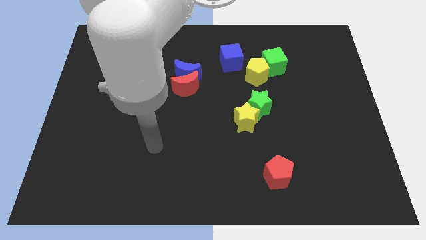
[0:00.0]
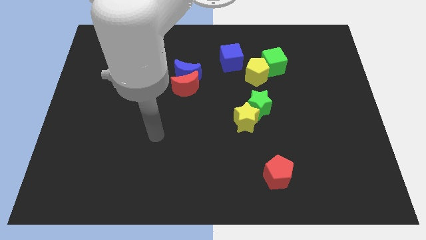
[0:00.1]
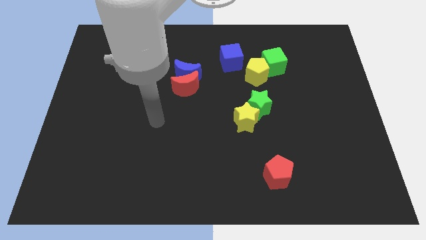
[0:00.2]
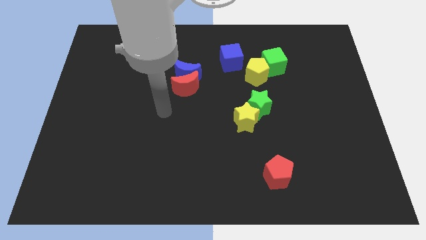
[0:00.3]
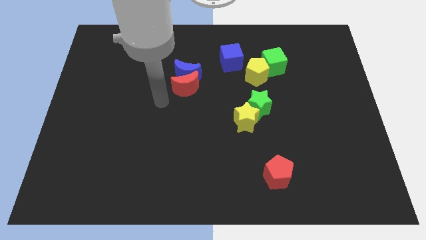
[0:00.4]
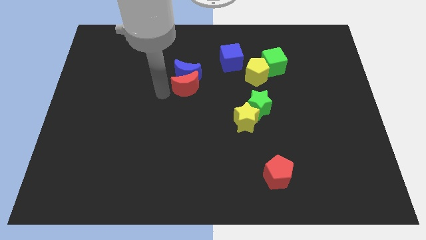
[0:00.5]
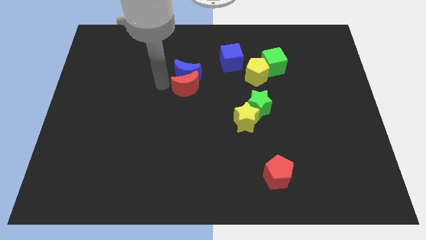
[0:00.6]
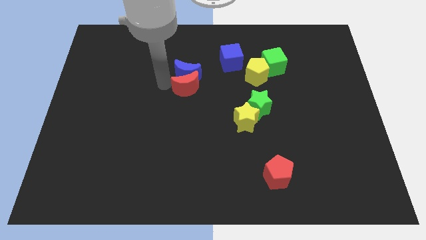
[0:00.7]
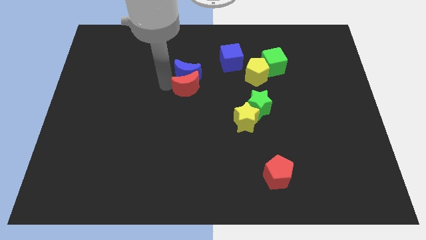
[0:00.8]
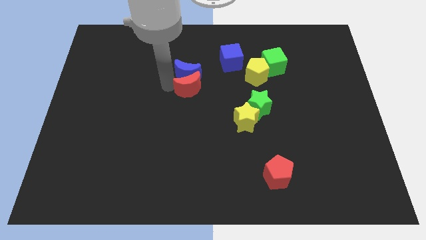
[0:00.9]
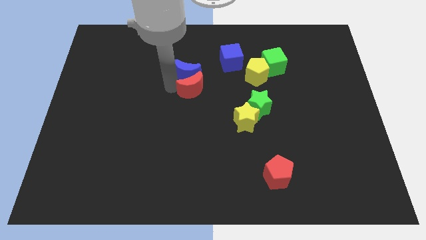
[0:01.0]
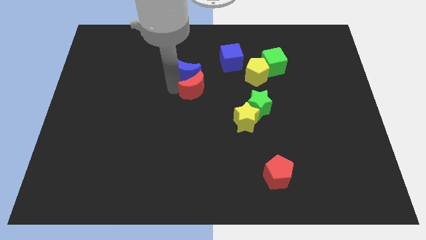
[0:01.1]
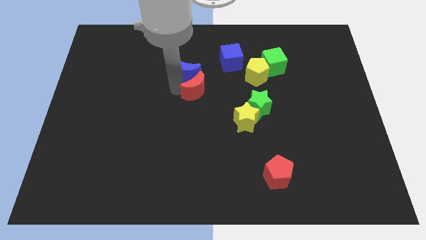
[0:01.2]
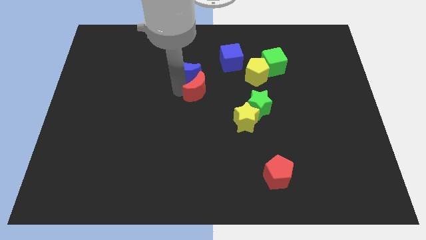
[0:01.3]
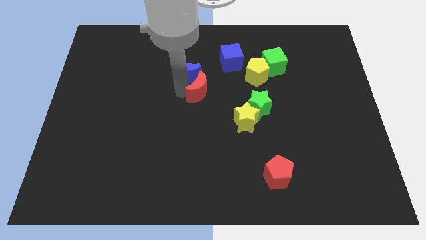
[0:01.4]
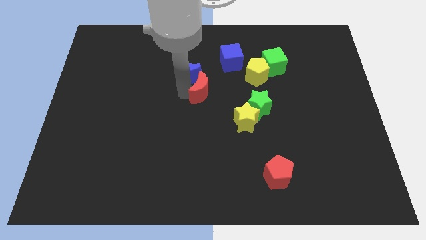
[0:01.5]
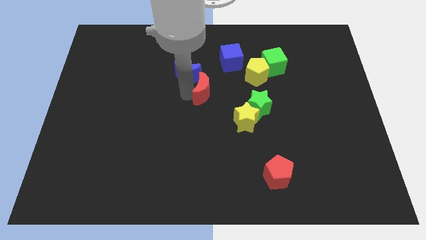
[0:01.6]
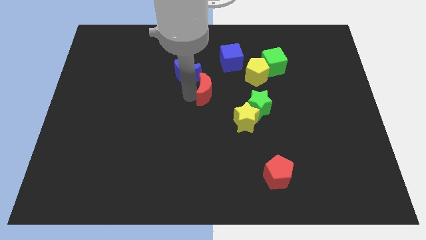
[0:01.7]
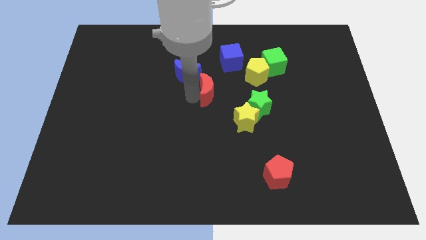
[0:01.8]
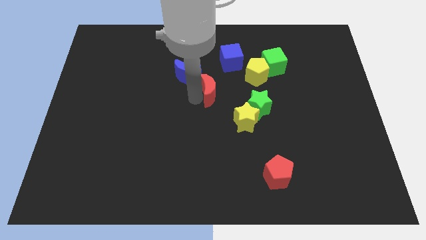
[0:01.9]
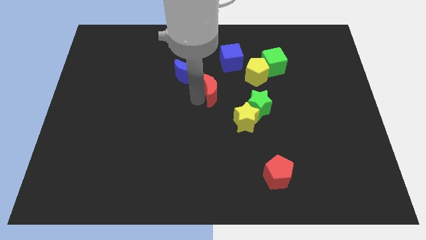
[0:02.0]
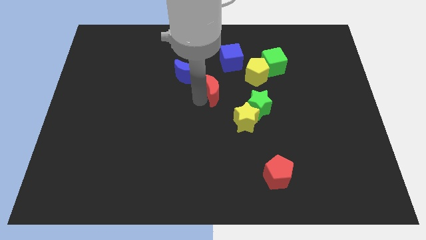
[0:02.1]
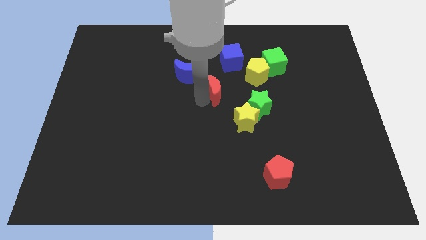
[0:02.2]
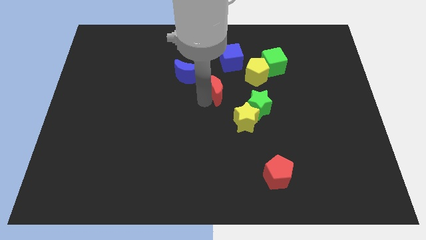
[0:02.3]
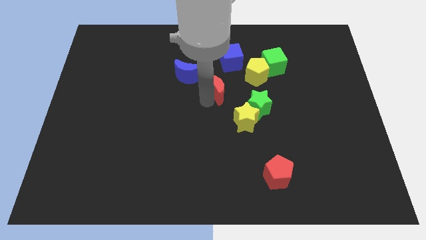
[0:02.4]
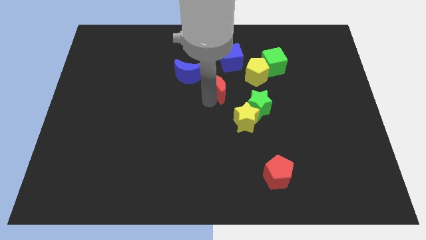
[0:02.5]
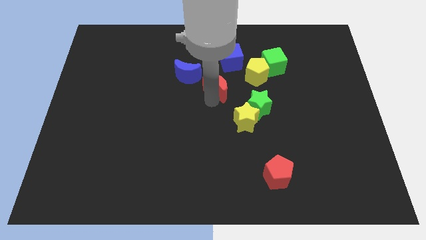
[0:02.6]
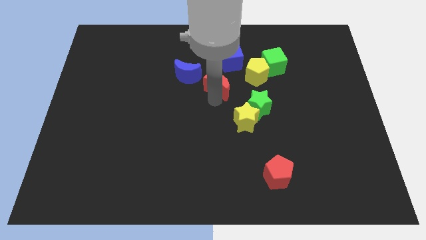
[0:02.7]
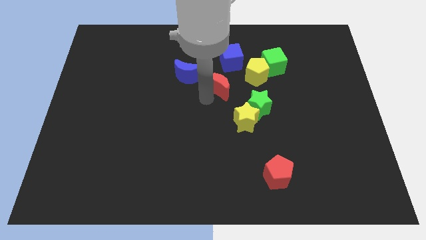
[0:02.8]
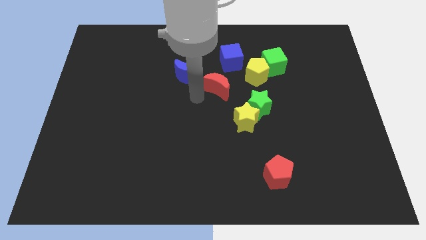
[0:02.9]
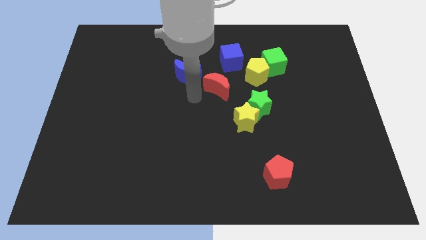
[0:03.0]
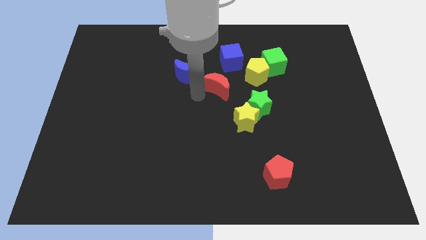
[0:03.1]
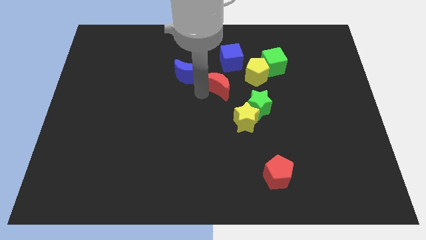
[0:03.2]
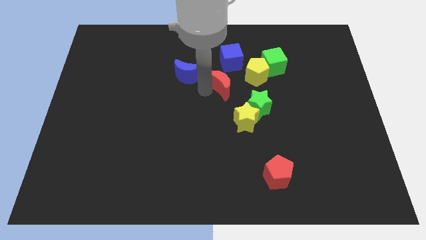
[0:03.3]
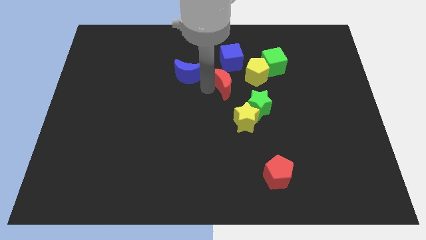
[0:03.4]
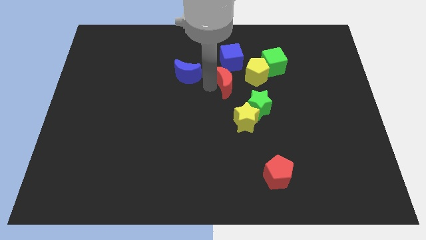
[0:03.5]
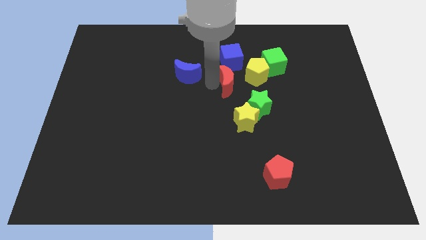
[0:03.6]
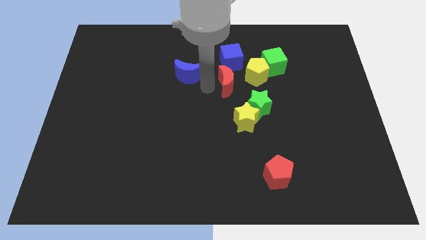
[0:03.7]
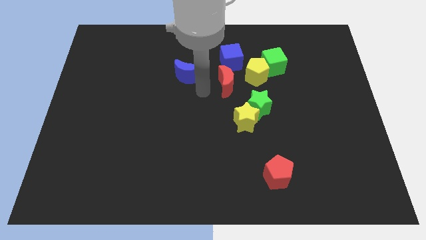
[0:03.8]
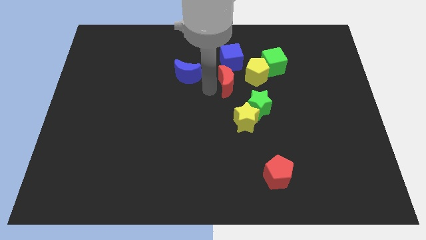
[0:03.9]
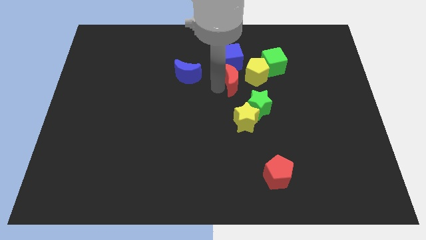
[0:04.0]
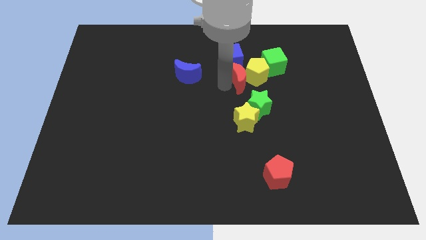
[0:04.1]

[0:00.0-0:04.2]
put the red moon next to the yellow pentagon

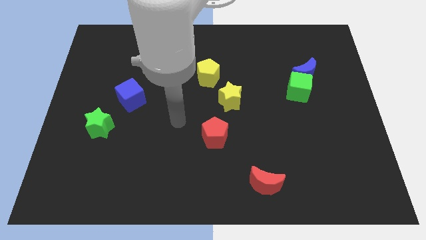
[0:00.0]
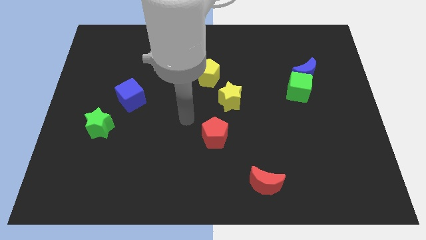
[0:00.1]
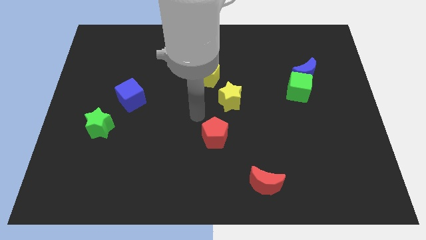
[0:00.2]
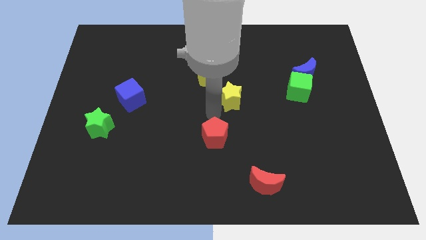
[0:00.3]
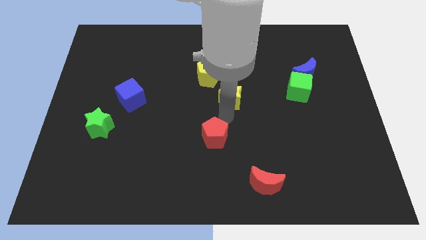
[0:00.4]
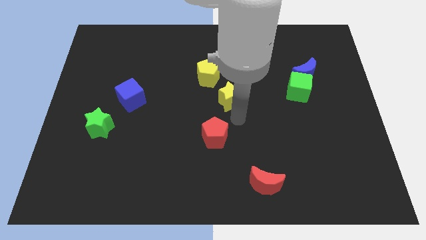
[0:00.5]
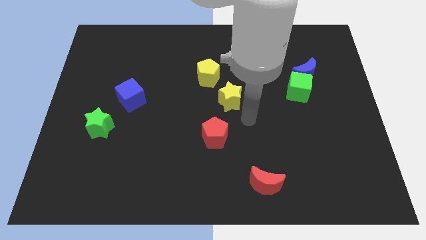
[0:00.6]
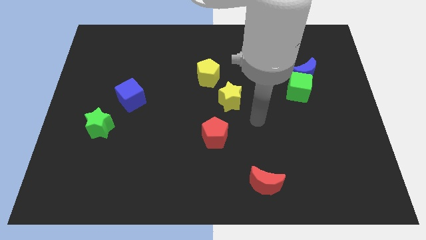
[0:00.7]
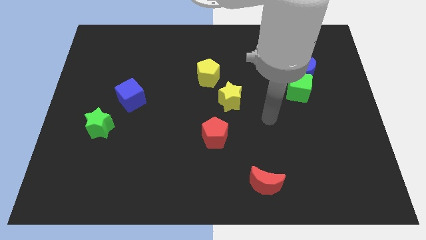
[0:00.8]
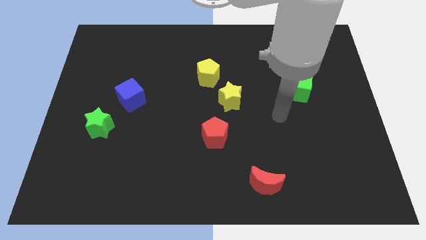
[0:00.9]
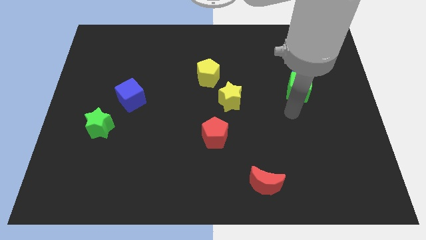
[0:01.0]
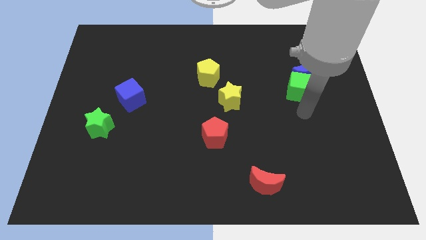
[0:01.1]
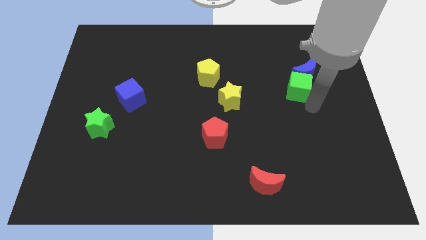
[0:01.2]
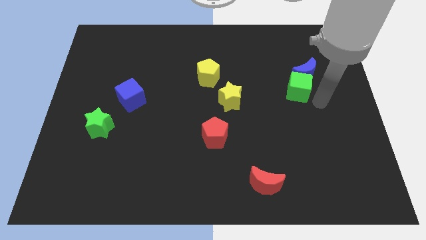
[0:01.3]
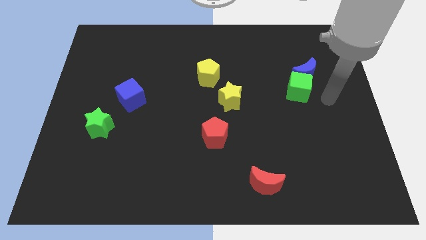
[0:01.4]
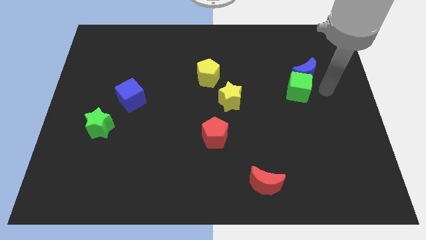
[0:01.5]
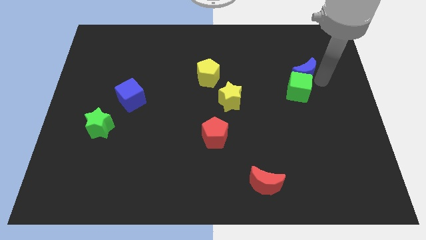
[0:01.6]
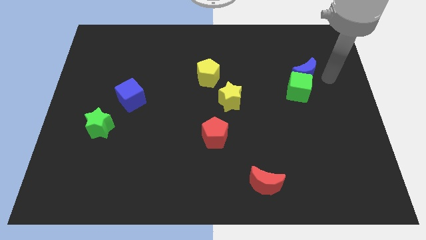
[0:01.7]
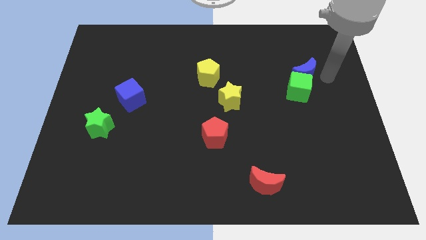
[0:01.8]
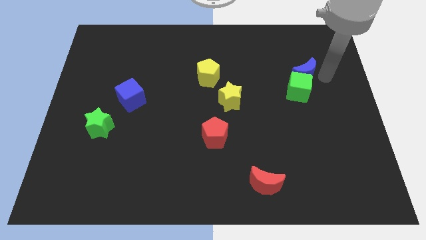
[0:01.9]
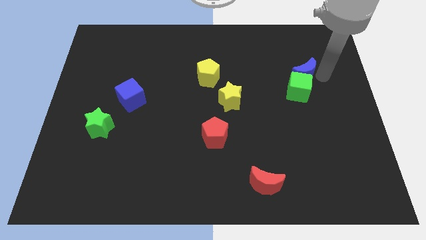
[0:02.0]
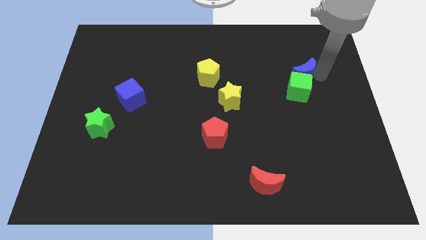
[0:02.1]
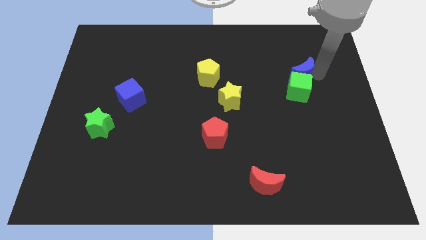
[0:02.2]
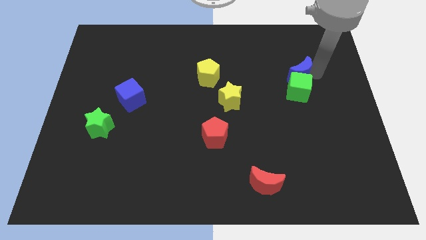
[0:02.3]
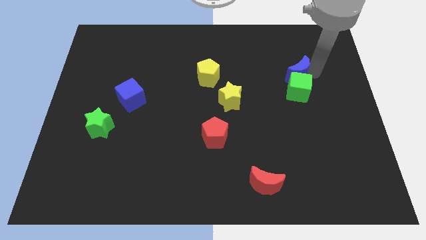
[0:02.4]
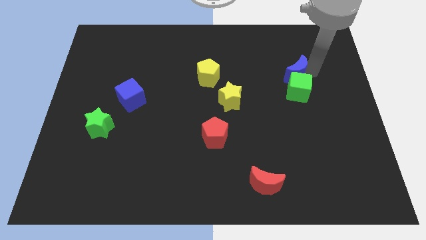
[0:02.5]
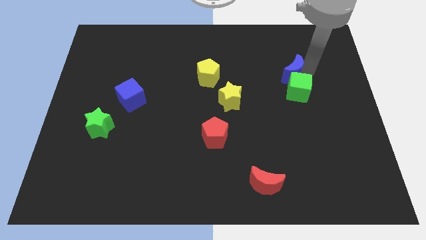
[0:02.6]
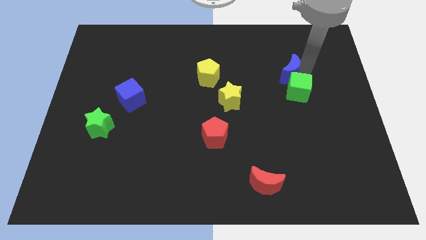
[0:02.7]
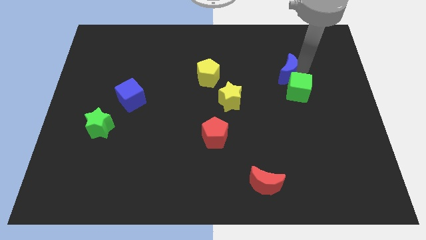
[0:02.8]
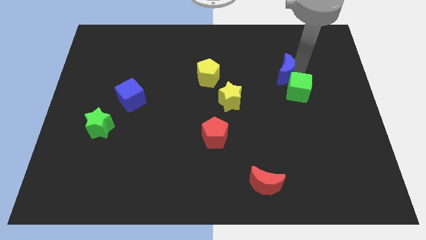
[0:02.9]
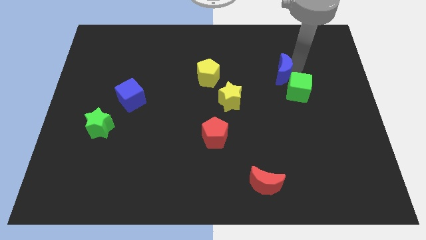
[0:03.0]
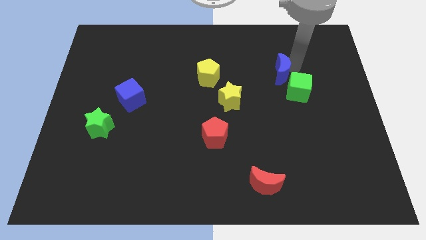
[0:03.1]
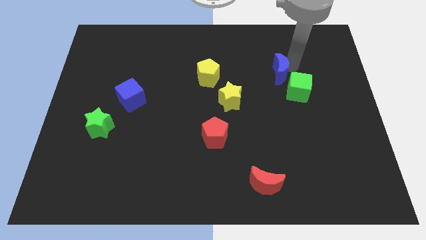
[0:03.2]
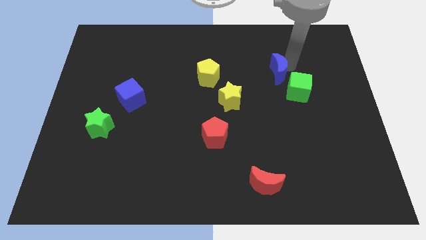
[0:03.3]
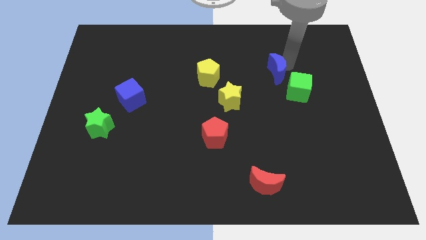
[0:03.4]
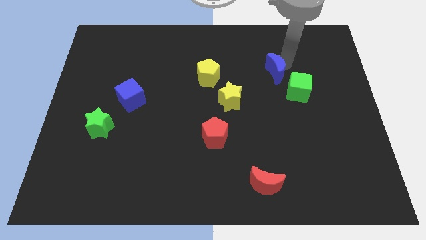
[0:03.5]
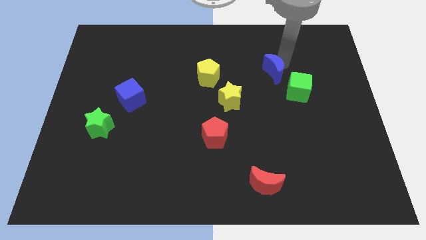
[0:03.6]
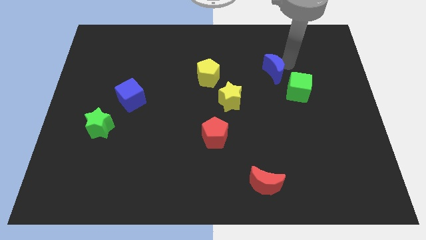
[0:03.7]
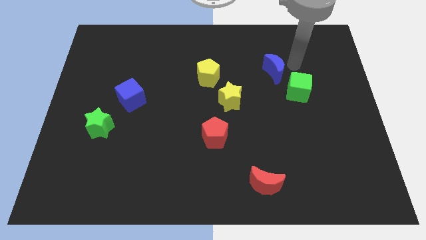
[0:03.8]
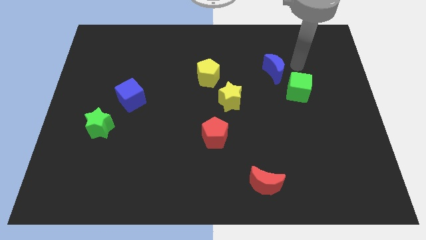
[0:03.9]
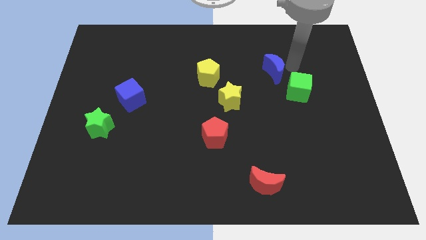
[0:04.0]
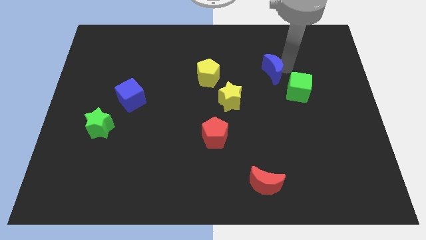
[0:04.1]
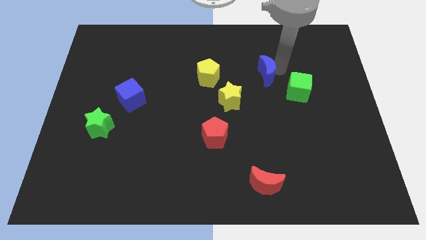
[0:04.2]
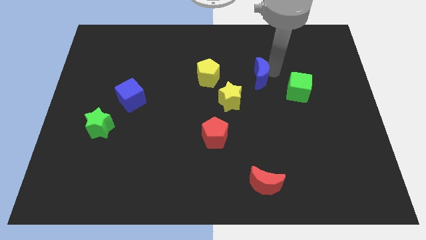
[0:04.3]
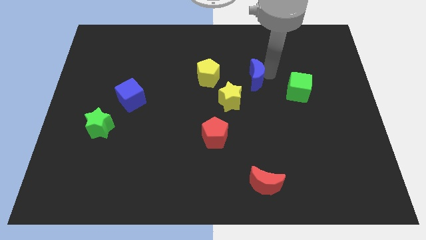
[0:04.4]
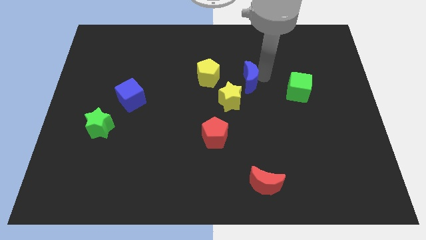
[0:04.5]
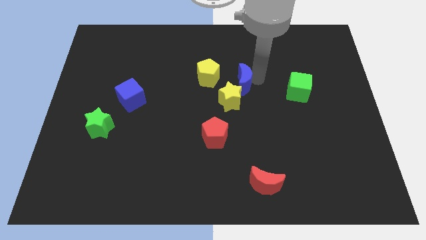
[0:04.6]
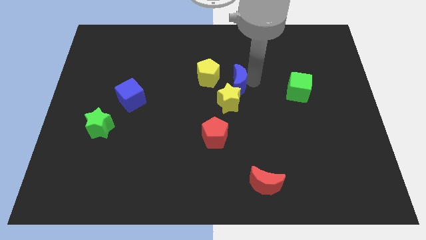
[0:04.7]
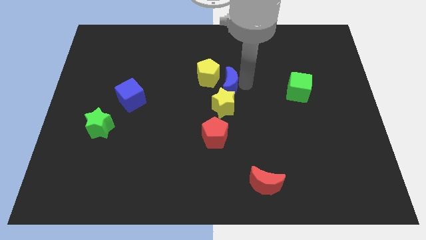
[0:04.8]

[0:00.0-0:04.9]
put the blue moon to the yellow pentagon
